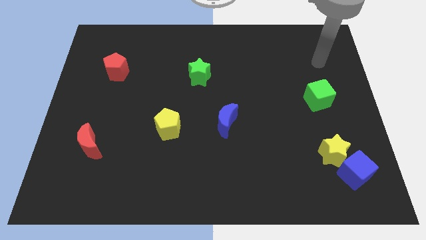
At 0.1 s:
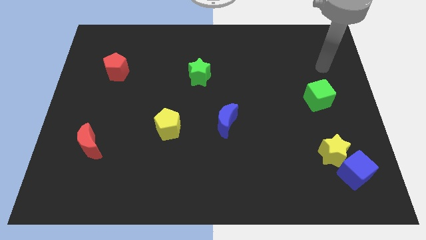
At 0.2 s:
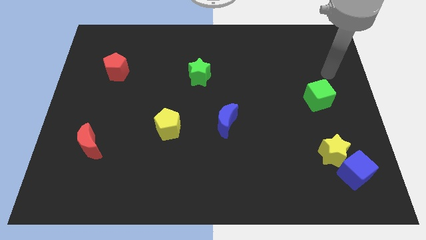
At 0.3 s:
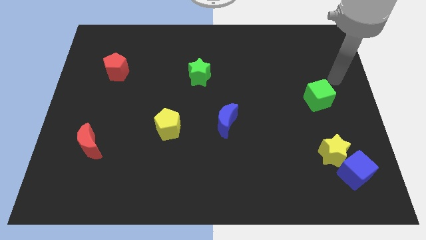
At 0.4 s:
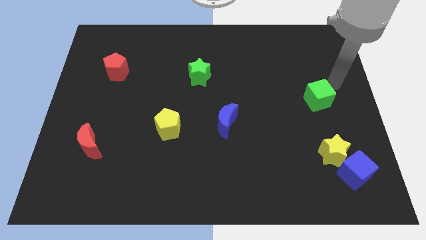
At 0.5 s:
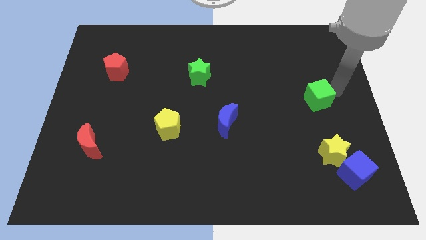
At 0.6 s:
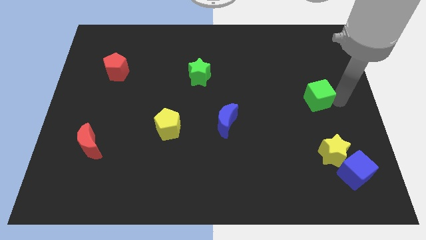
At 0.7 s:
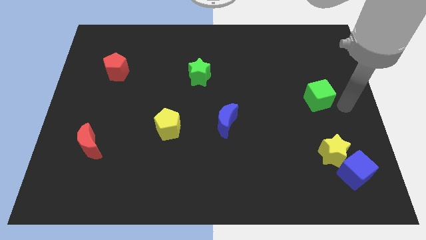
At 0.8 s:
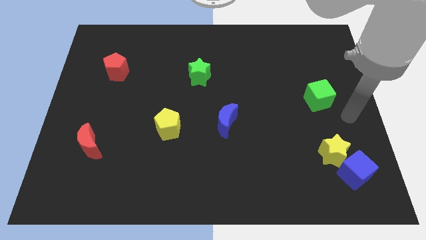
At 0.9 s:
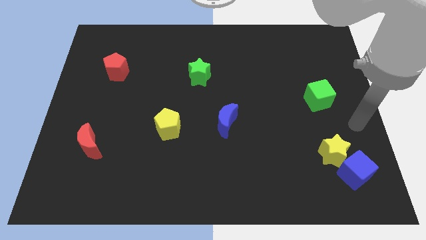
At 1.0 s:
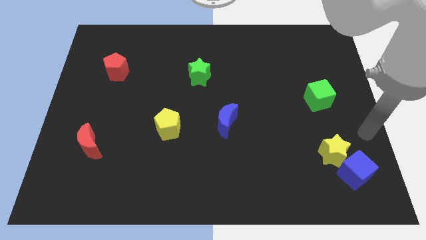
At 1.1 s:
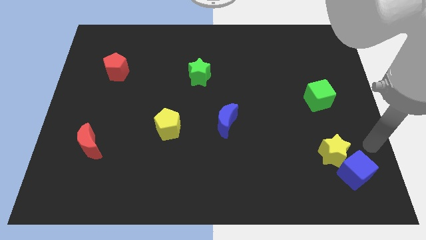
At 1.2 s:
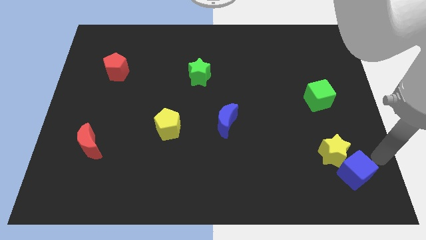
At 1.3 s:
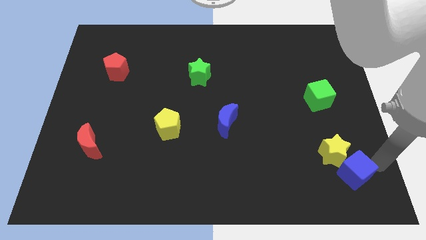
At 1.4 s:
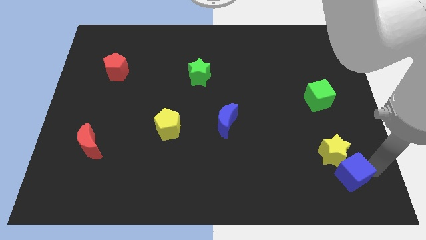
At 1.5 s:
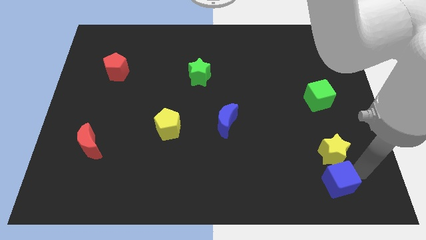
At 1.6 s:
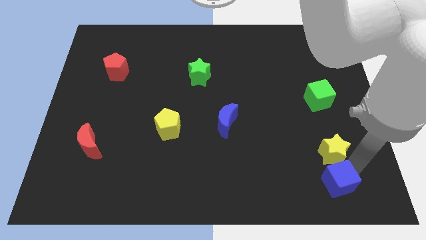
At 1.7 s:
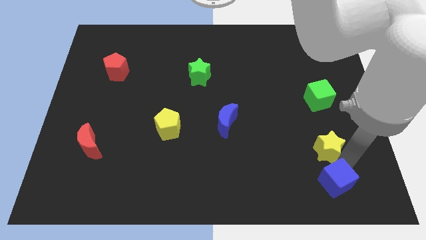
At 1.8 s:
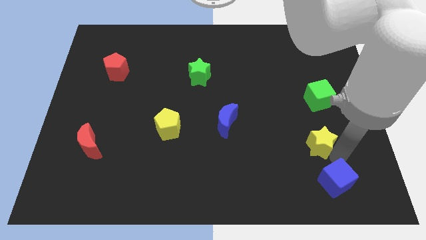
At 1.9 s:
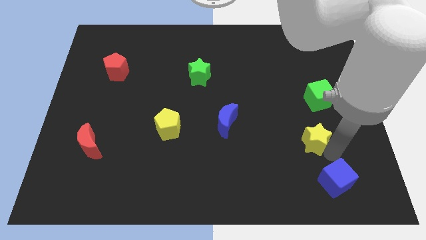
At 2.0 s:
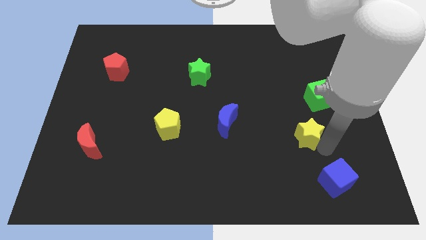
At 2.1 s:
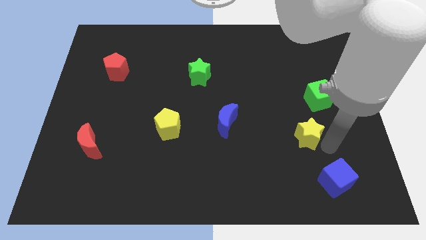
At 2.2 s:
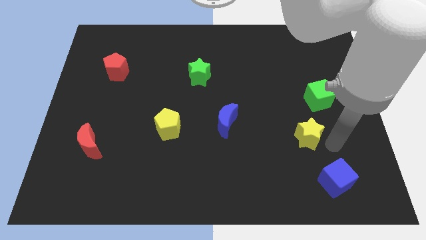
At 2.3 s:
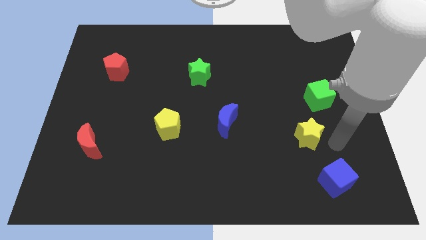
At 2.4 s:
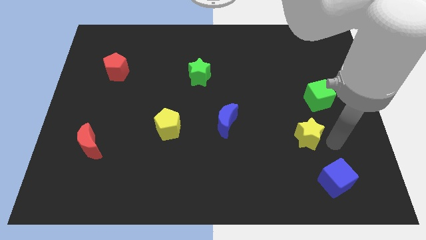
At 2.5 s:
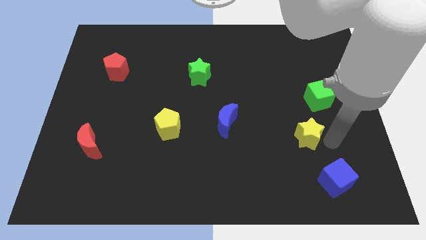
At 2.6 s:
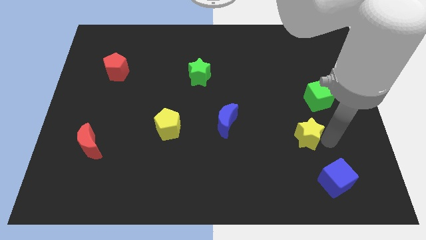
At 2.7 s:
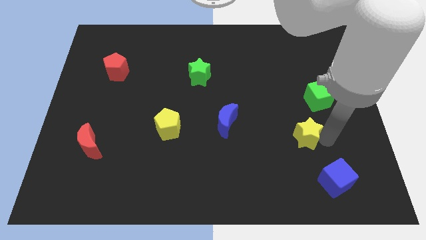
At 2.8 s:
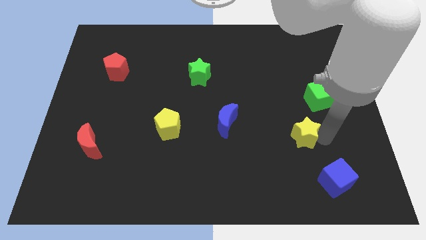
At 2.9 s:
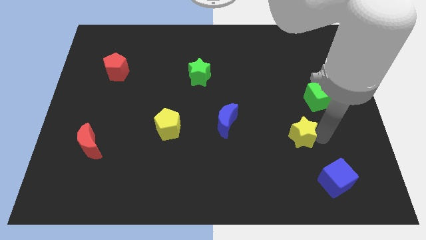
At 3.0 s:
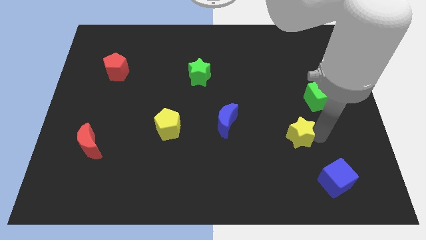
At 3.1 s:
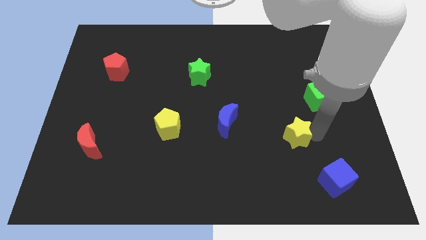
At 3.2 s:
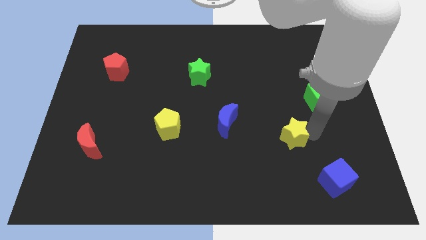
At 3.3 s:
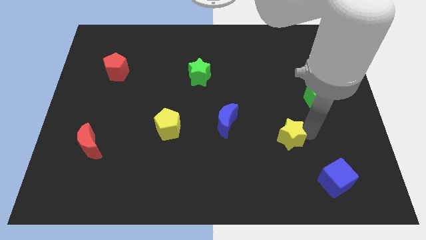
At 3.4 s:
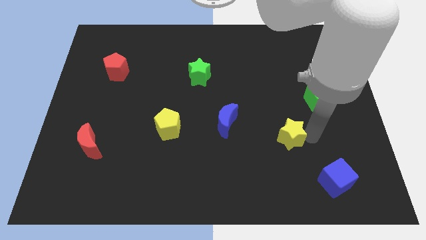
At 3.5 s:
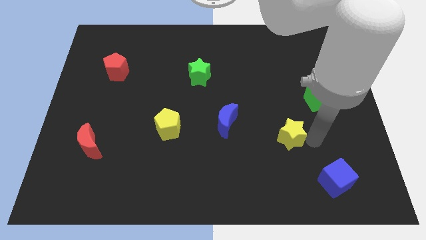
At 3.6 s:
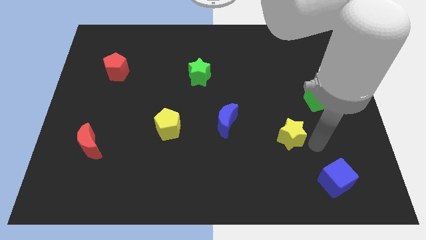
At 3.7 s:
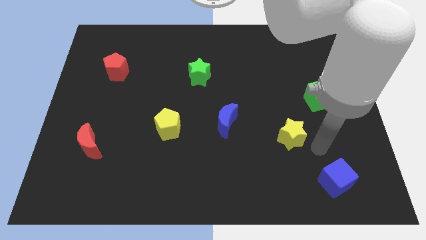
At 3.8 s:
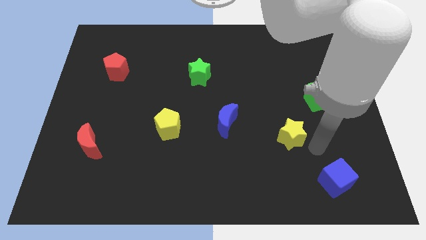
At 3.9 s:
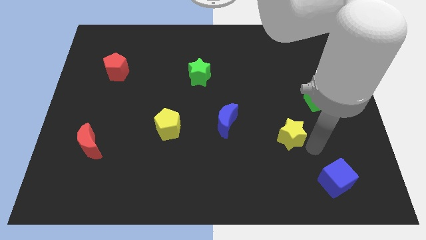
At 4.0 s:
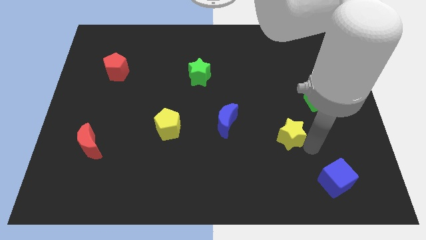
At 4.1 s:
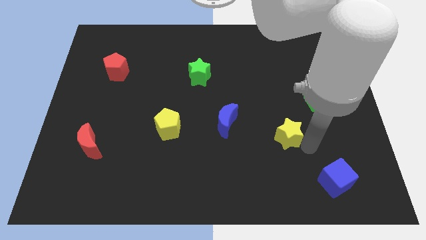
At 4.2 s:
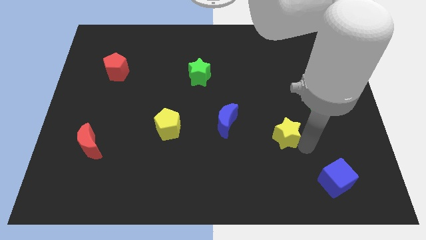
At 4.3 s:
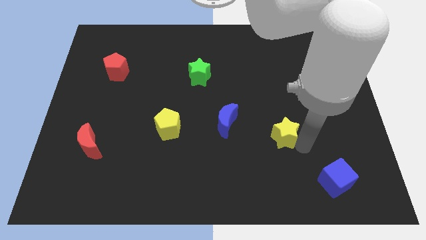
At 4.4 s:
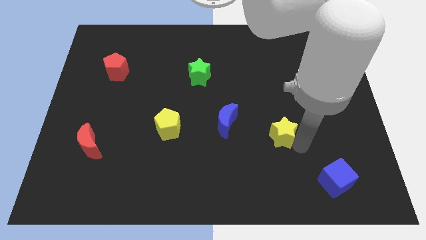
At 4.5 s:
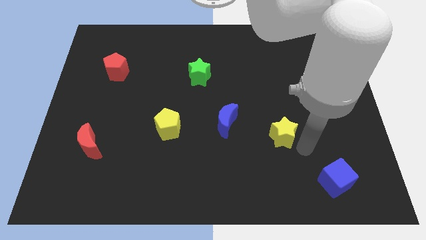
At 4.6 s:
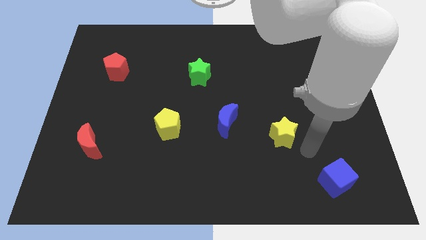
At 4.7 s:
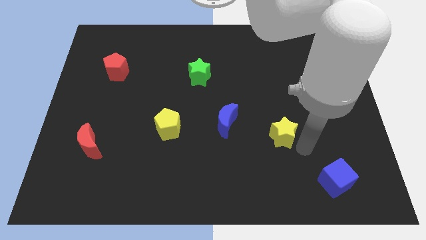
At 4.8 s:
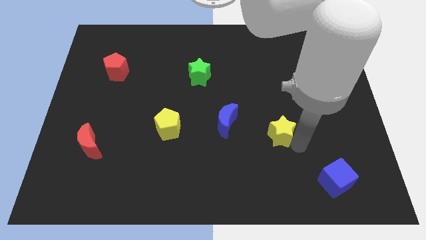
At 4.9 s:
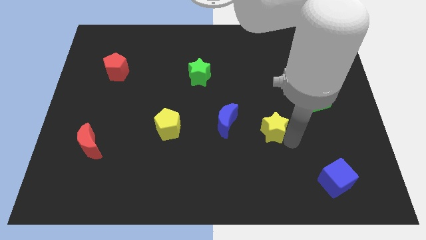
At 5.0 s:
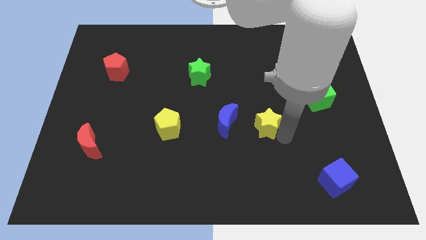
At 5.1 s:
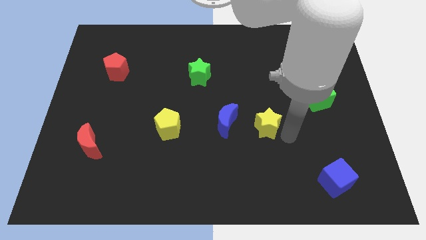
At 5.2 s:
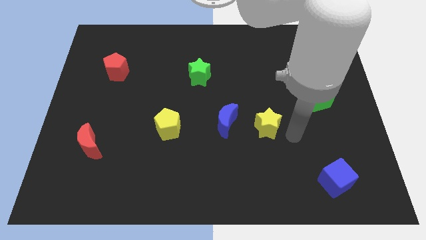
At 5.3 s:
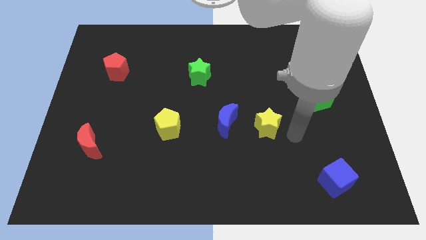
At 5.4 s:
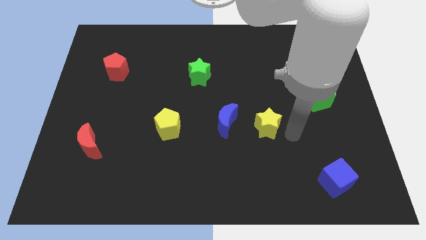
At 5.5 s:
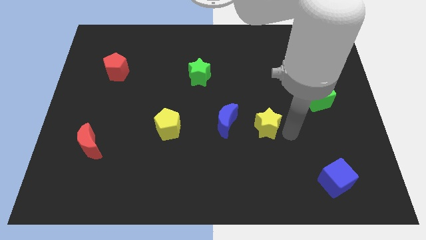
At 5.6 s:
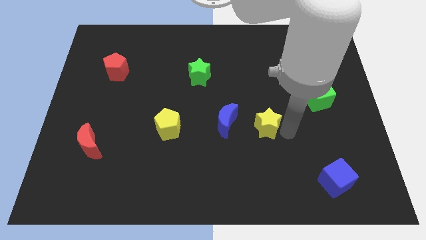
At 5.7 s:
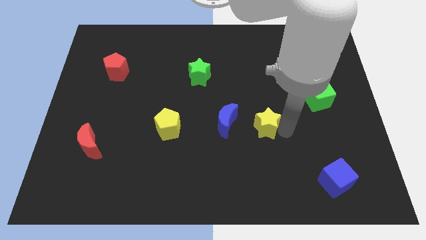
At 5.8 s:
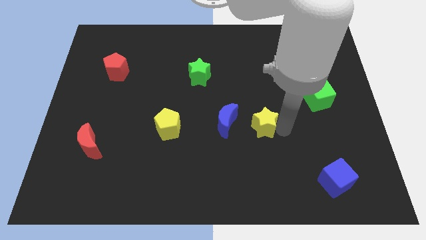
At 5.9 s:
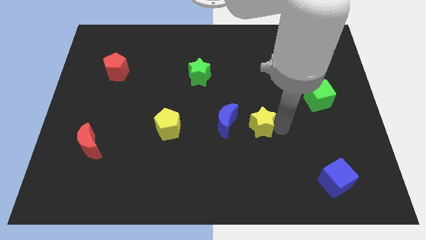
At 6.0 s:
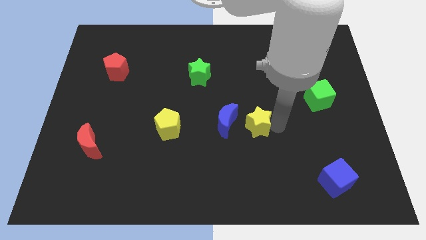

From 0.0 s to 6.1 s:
push the yellow star to the middle
